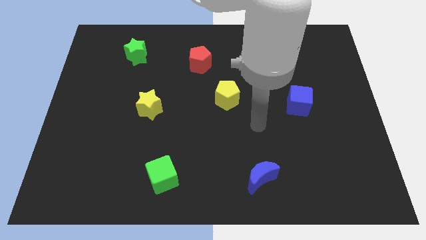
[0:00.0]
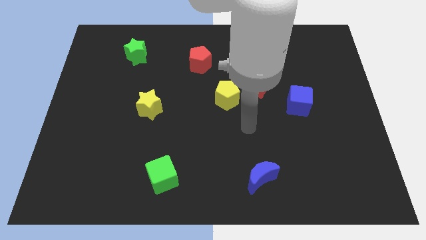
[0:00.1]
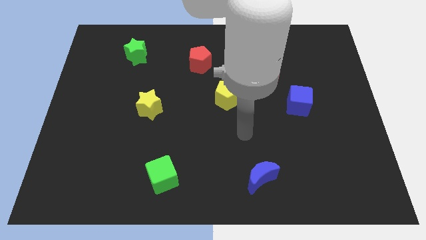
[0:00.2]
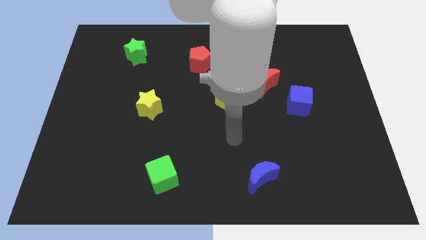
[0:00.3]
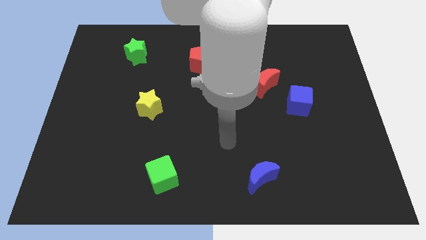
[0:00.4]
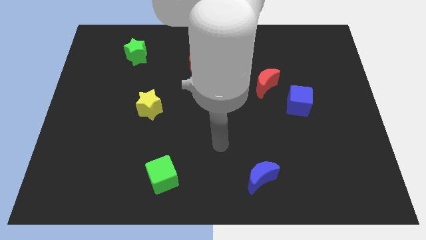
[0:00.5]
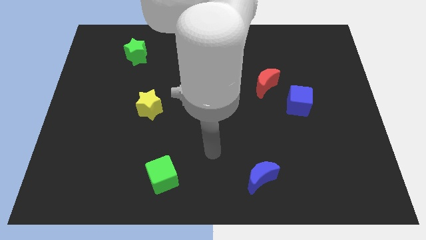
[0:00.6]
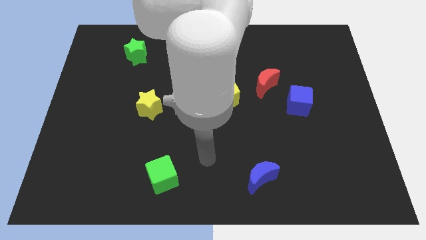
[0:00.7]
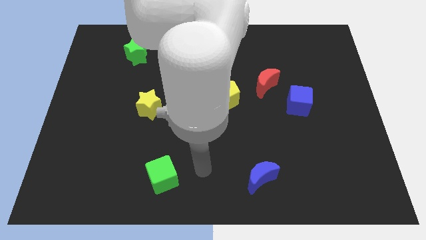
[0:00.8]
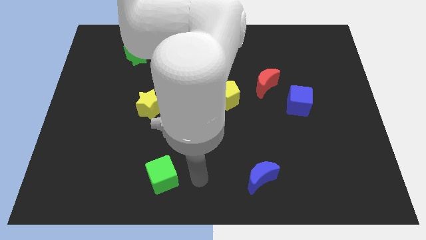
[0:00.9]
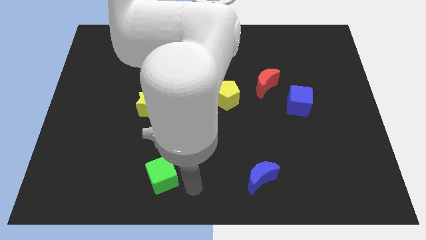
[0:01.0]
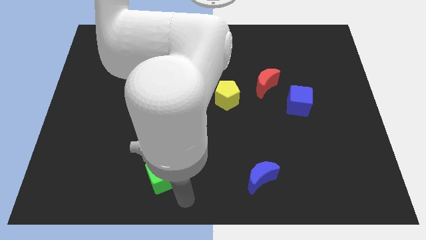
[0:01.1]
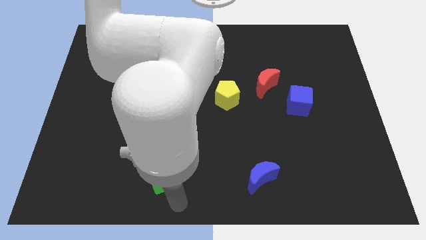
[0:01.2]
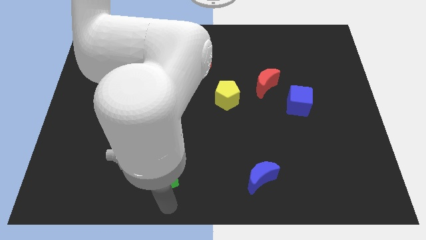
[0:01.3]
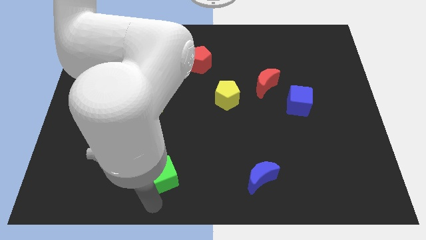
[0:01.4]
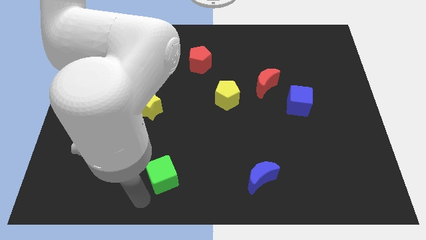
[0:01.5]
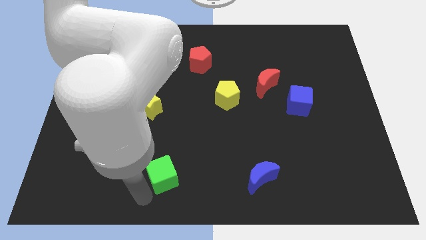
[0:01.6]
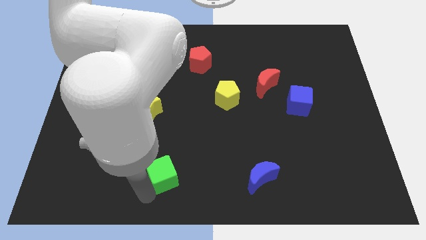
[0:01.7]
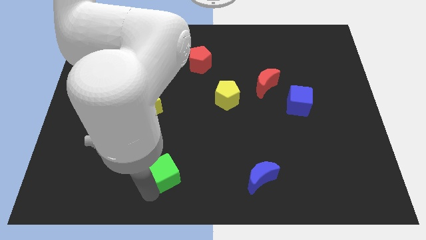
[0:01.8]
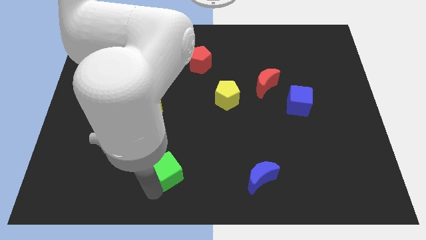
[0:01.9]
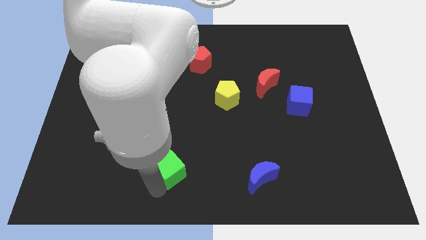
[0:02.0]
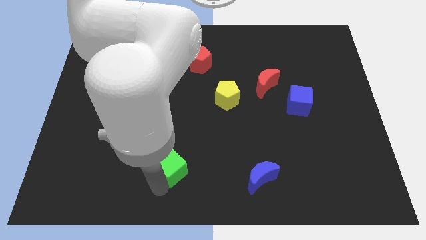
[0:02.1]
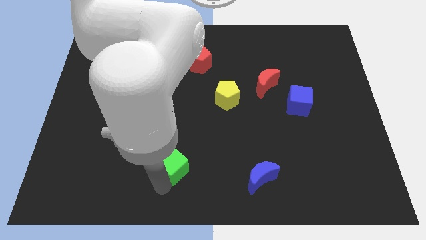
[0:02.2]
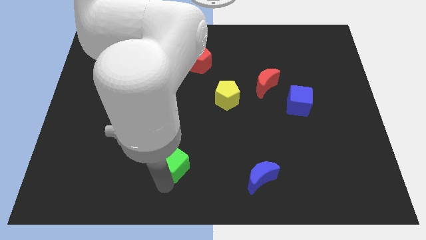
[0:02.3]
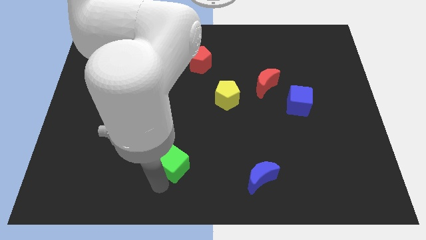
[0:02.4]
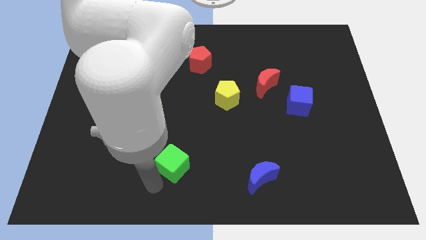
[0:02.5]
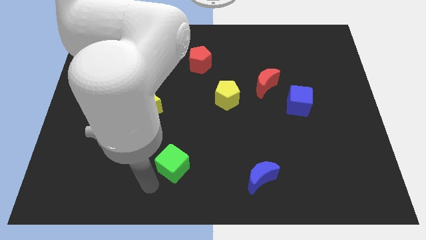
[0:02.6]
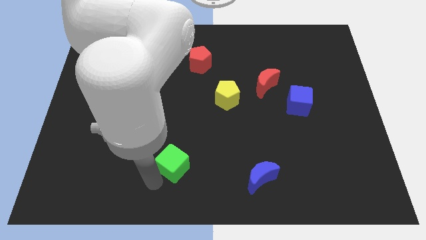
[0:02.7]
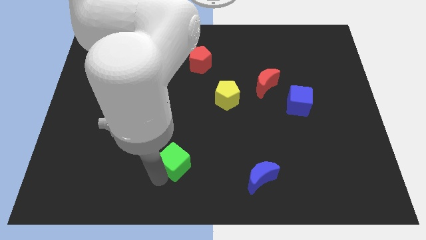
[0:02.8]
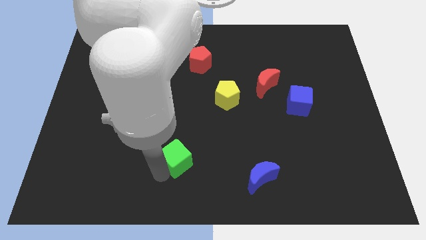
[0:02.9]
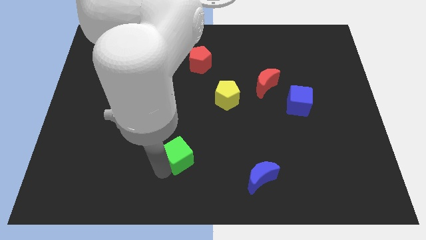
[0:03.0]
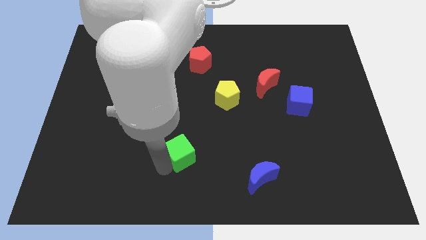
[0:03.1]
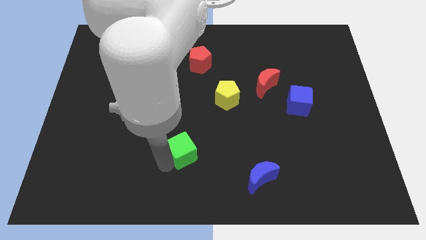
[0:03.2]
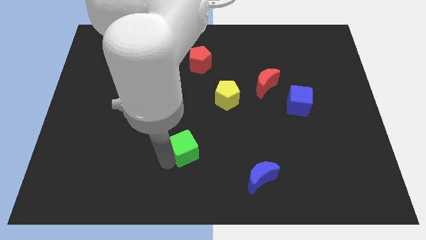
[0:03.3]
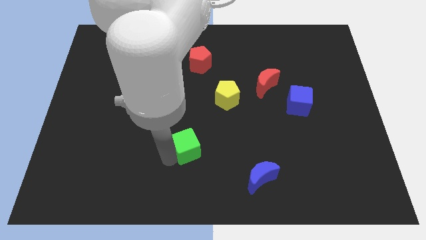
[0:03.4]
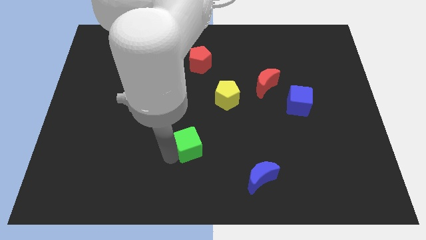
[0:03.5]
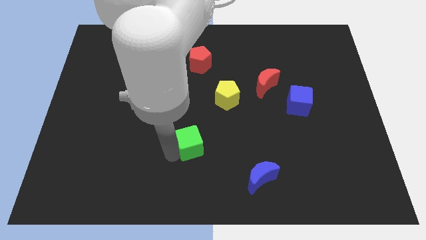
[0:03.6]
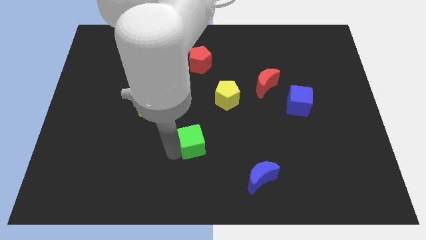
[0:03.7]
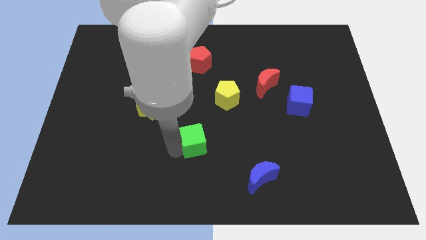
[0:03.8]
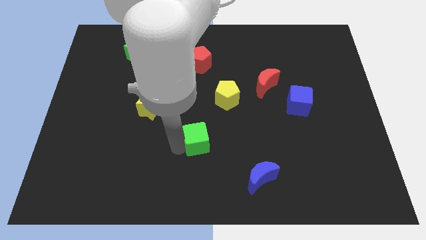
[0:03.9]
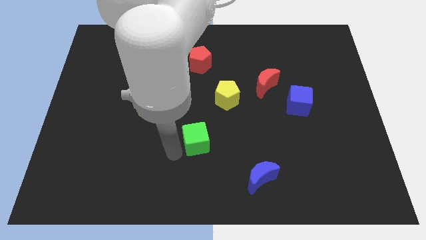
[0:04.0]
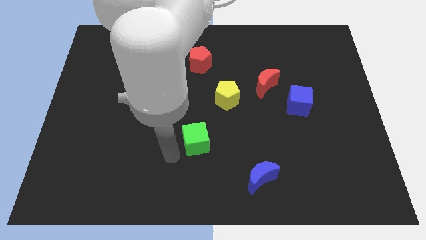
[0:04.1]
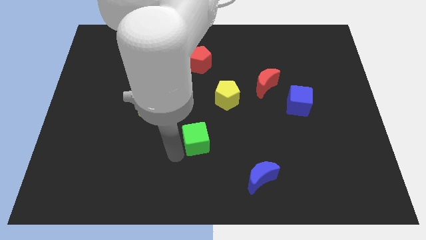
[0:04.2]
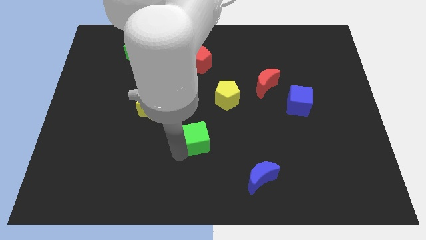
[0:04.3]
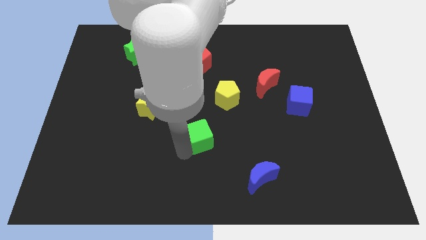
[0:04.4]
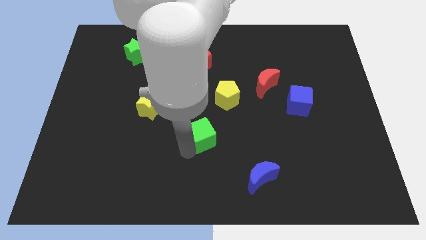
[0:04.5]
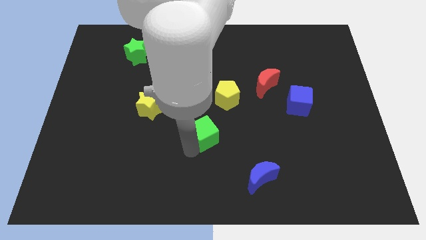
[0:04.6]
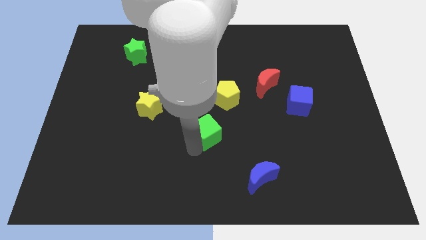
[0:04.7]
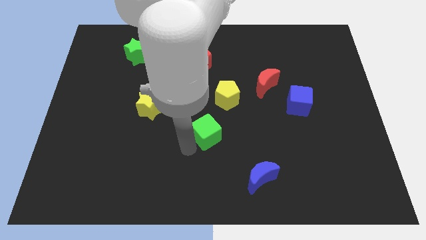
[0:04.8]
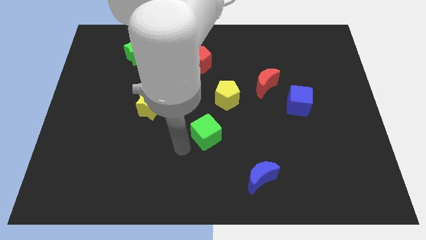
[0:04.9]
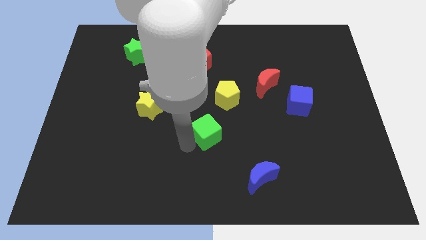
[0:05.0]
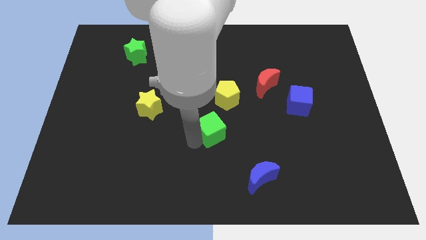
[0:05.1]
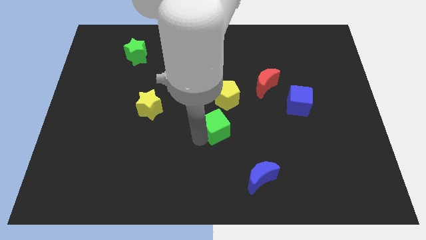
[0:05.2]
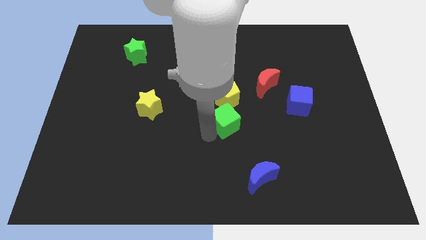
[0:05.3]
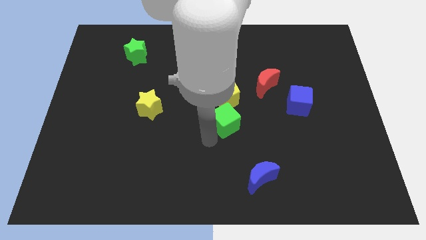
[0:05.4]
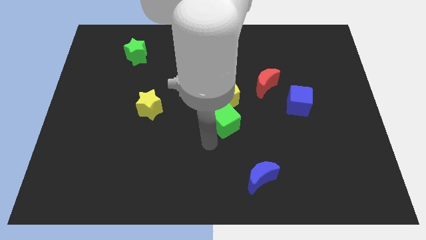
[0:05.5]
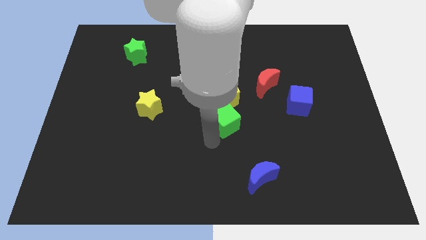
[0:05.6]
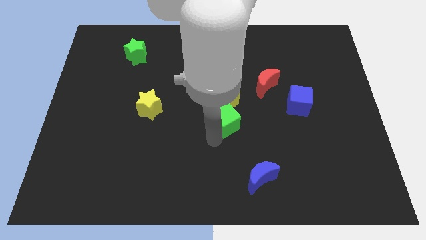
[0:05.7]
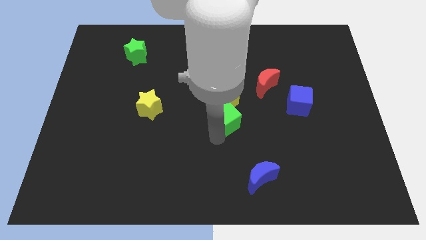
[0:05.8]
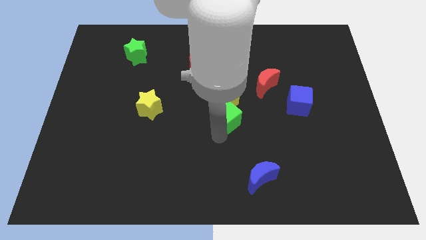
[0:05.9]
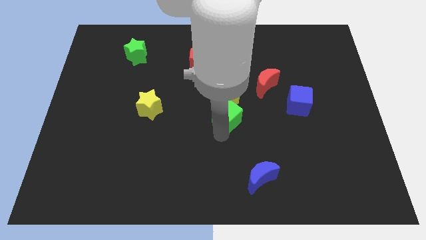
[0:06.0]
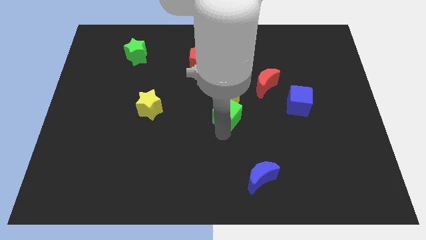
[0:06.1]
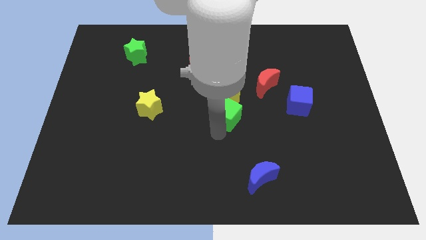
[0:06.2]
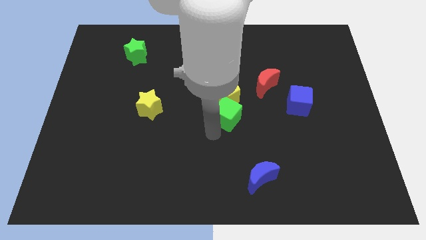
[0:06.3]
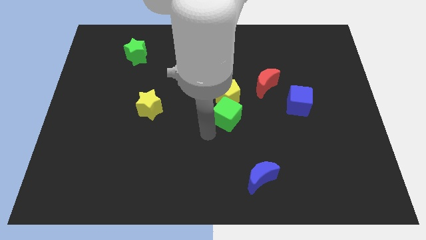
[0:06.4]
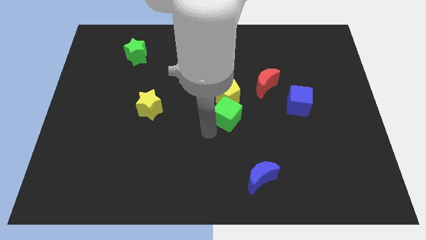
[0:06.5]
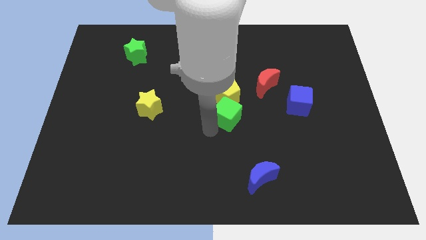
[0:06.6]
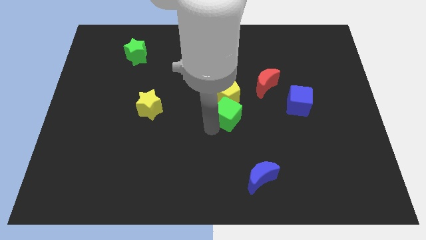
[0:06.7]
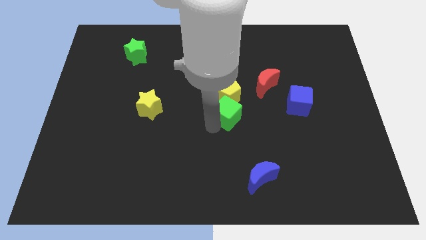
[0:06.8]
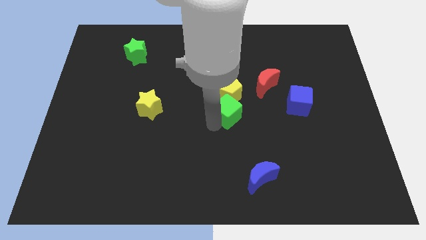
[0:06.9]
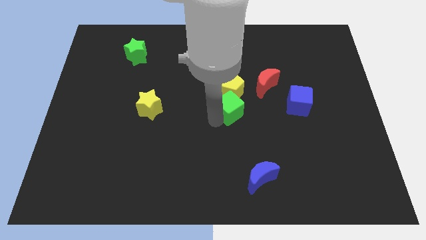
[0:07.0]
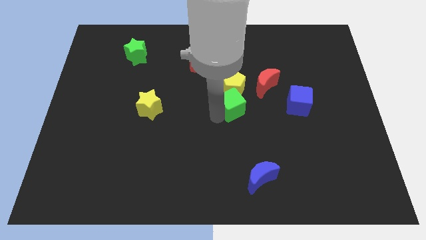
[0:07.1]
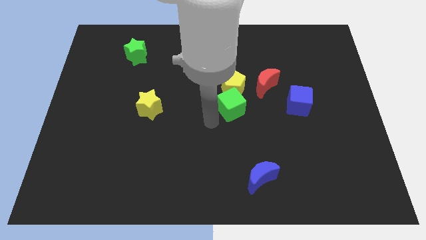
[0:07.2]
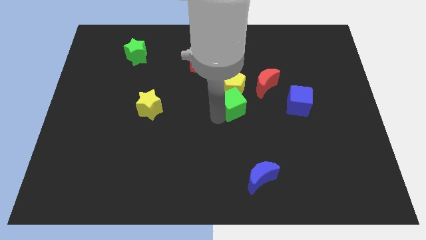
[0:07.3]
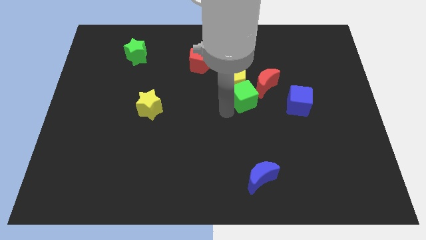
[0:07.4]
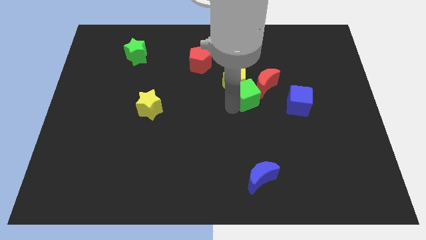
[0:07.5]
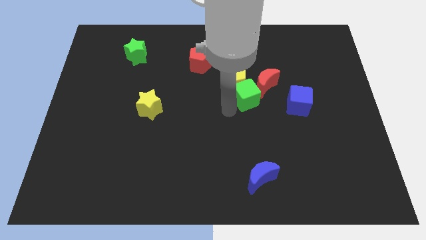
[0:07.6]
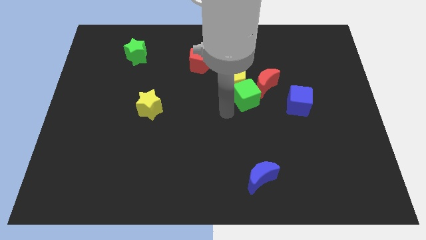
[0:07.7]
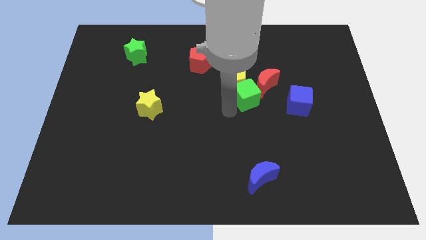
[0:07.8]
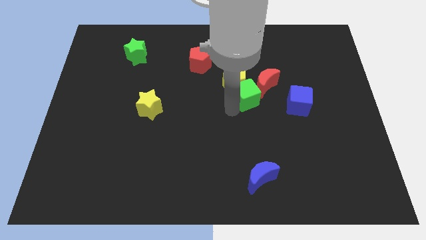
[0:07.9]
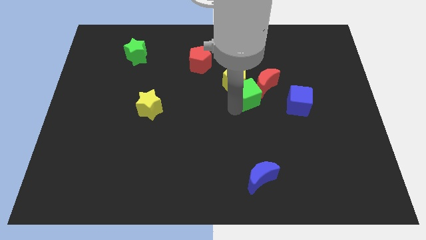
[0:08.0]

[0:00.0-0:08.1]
put the green cube towards the red moon
